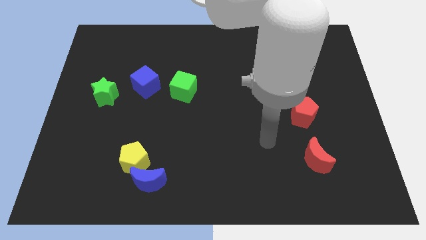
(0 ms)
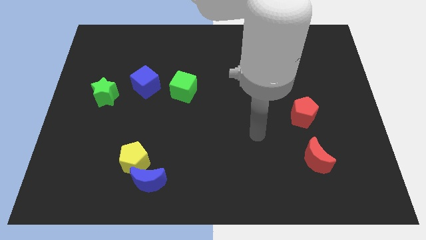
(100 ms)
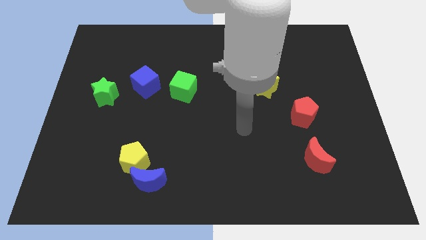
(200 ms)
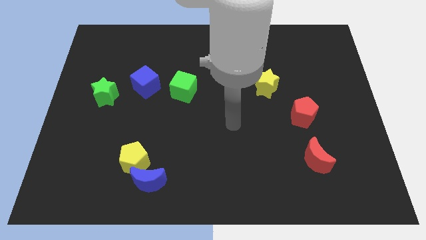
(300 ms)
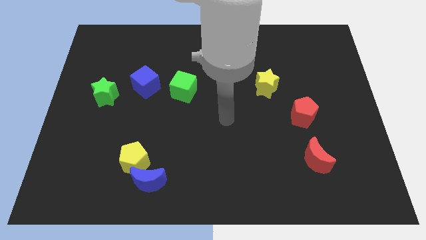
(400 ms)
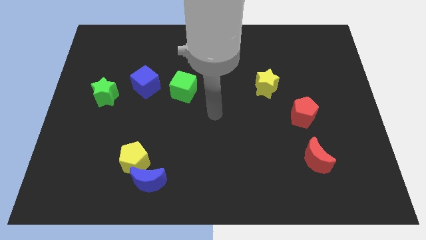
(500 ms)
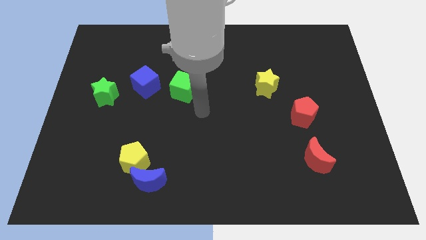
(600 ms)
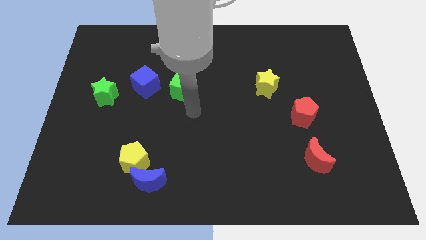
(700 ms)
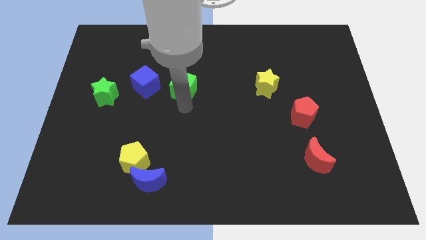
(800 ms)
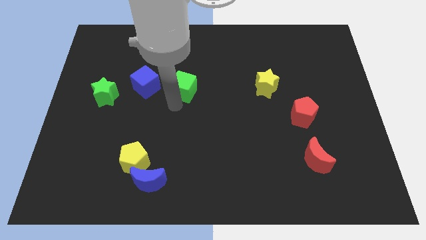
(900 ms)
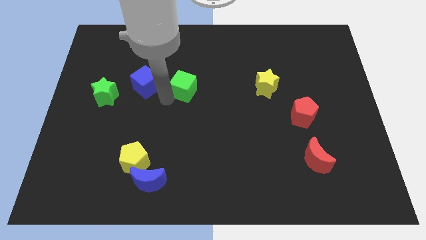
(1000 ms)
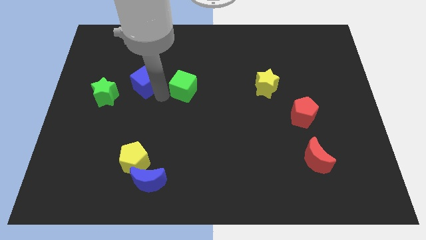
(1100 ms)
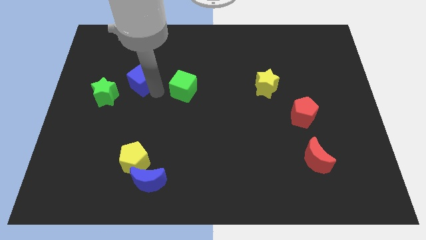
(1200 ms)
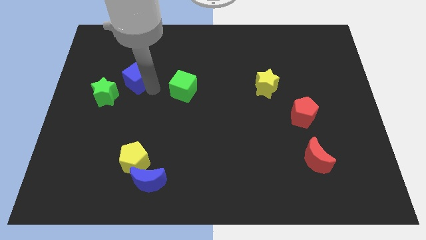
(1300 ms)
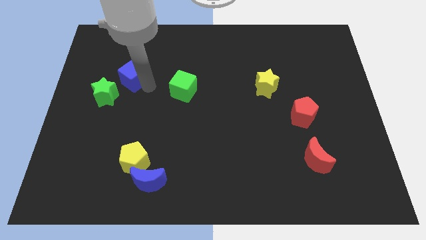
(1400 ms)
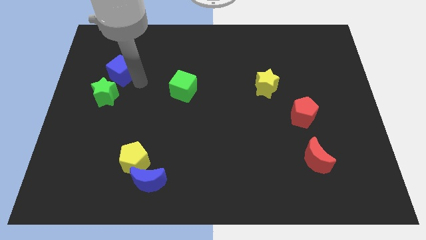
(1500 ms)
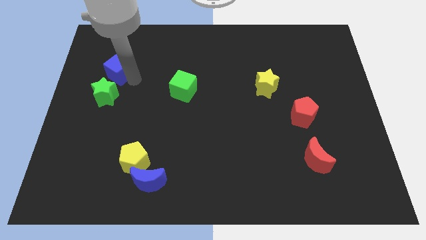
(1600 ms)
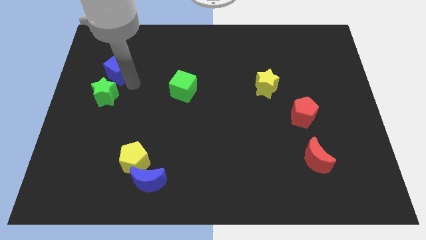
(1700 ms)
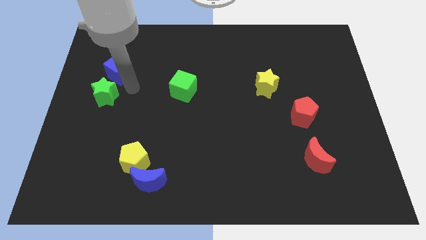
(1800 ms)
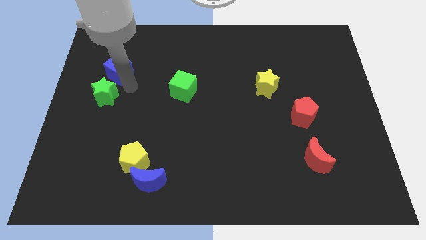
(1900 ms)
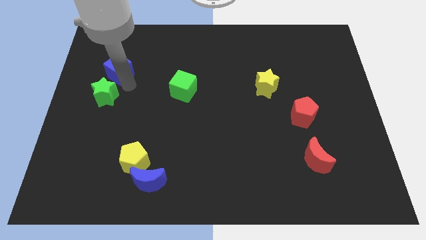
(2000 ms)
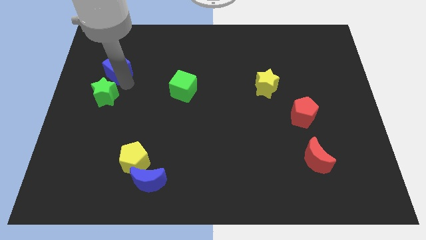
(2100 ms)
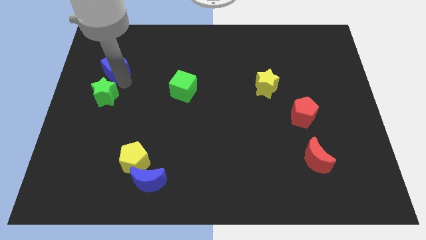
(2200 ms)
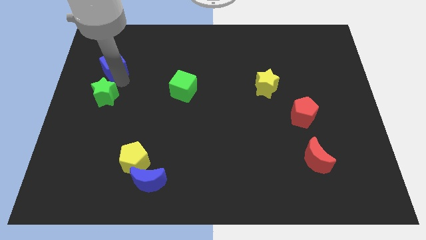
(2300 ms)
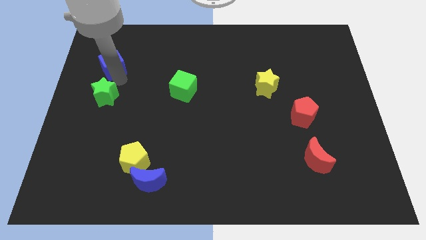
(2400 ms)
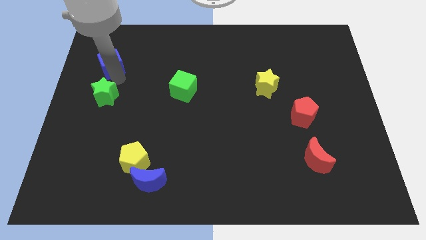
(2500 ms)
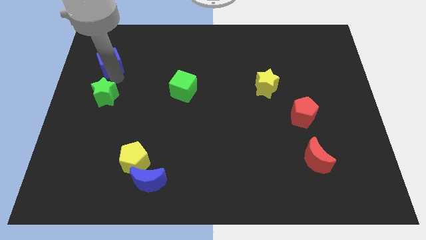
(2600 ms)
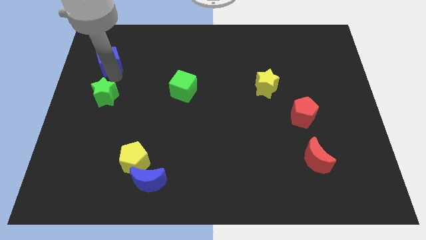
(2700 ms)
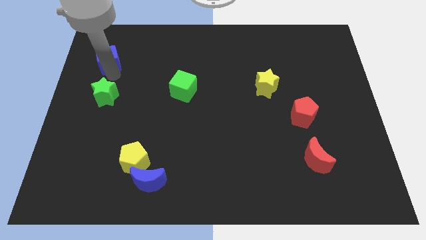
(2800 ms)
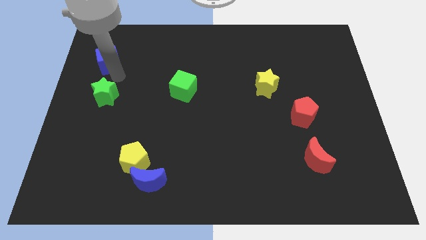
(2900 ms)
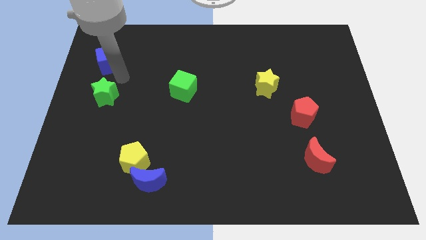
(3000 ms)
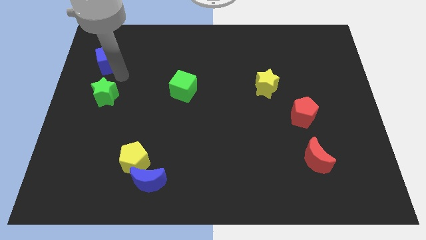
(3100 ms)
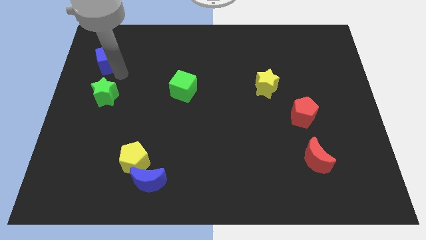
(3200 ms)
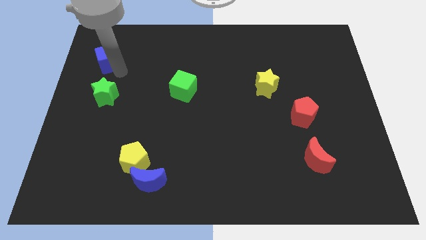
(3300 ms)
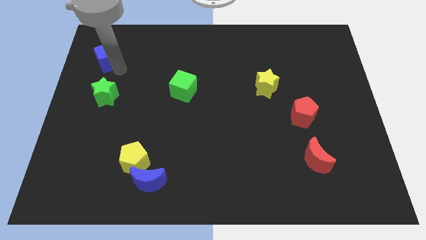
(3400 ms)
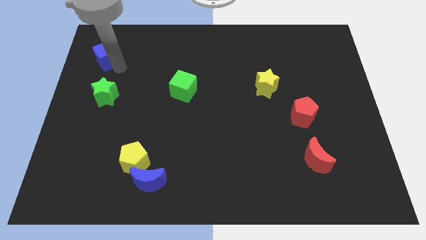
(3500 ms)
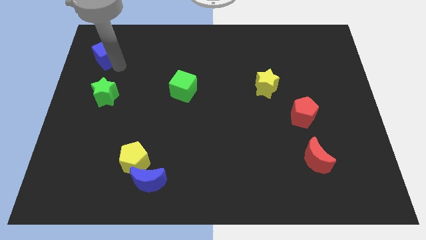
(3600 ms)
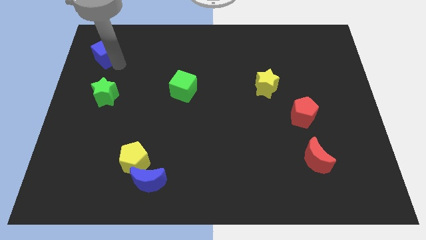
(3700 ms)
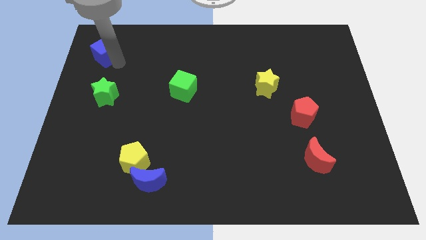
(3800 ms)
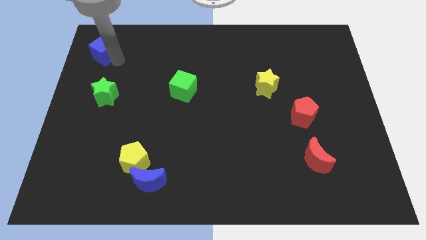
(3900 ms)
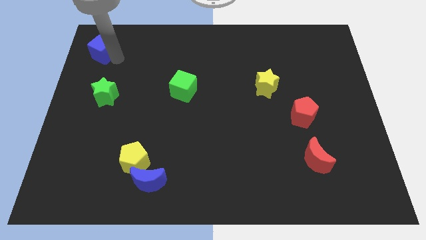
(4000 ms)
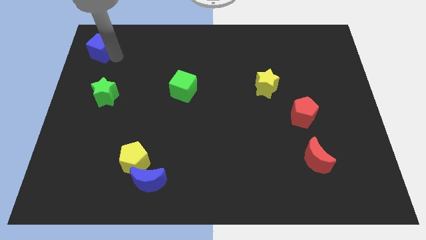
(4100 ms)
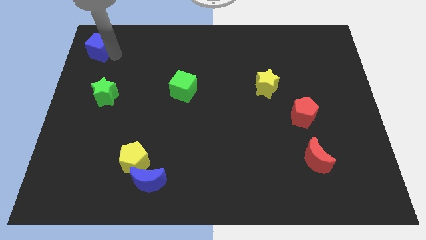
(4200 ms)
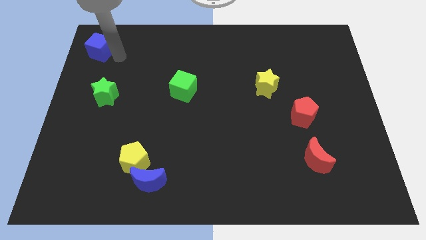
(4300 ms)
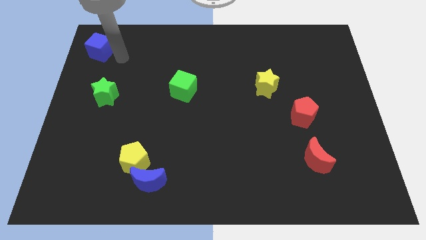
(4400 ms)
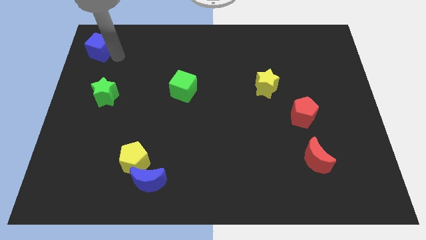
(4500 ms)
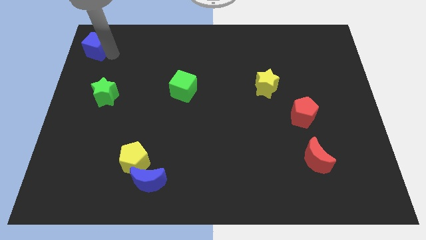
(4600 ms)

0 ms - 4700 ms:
push the blue cube to the upper left corner

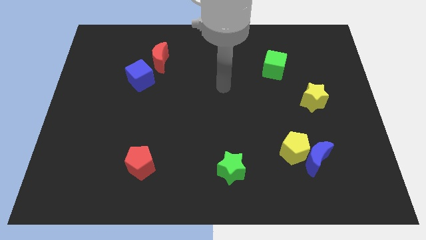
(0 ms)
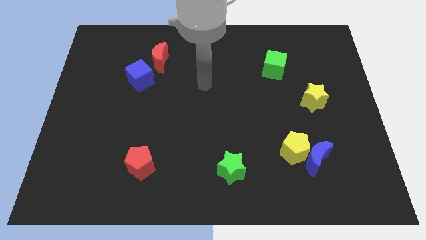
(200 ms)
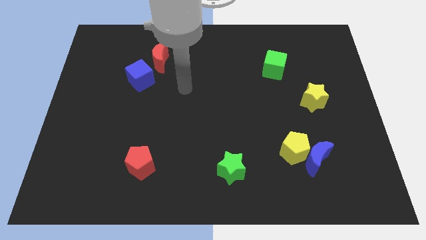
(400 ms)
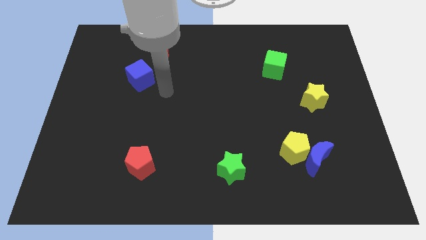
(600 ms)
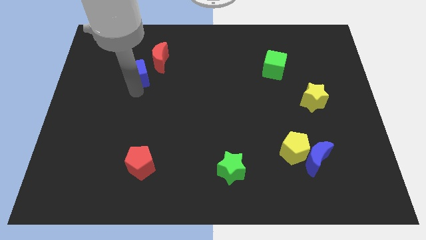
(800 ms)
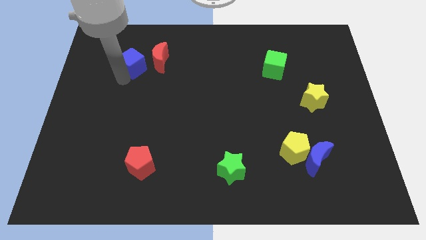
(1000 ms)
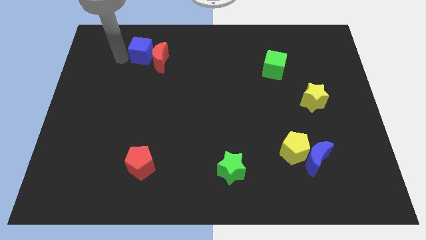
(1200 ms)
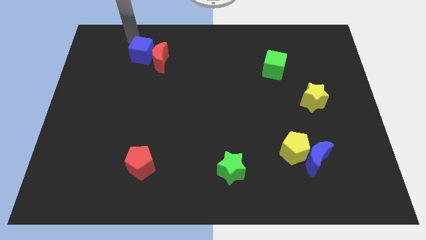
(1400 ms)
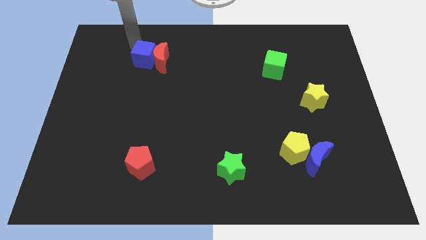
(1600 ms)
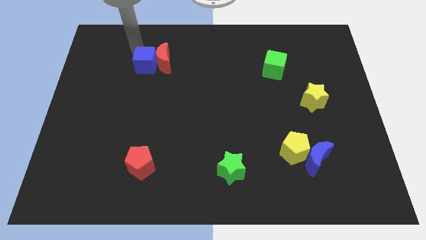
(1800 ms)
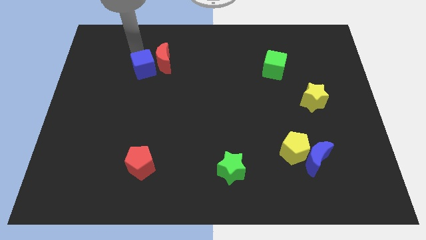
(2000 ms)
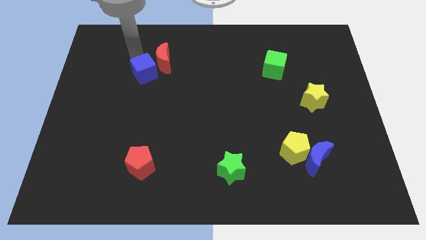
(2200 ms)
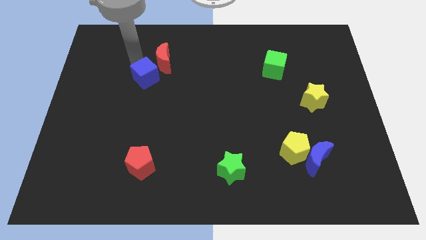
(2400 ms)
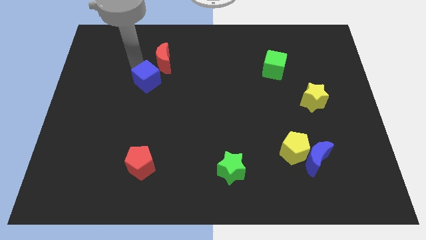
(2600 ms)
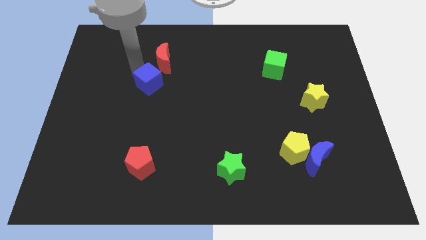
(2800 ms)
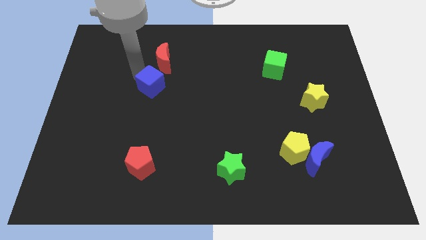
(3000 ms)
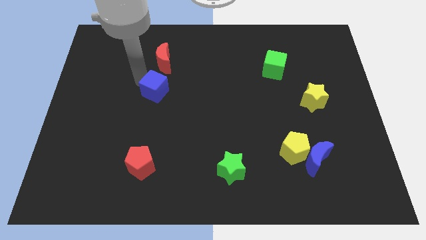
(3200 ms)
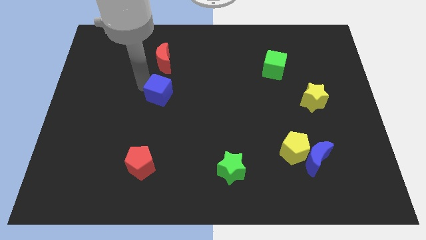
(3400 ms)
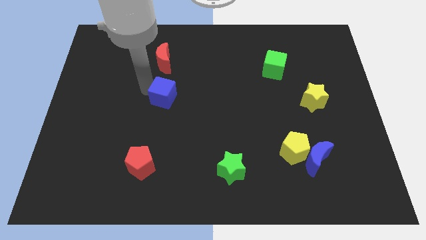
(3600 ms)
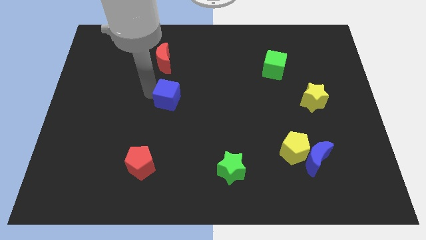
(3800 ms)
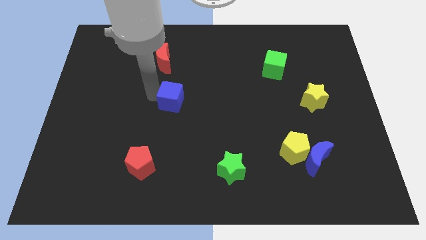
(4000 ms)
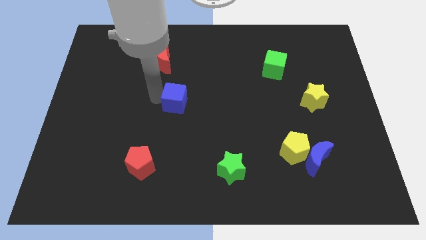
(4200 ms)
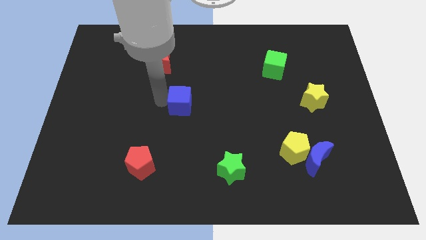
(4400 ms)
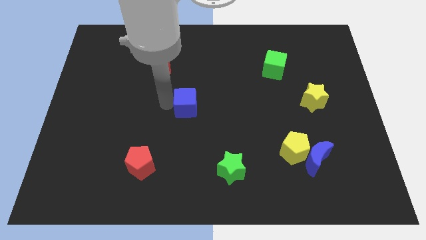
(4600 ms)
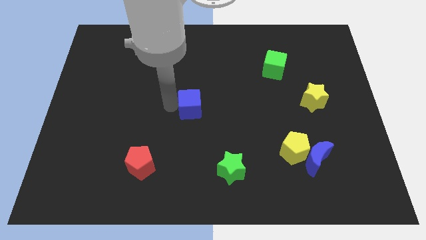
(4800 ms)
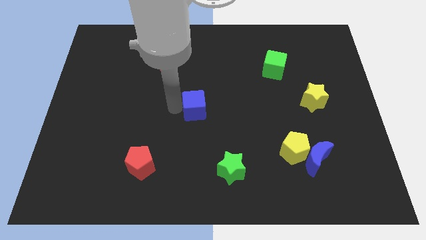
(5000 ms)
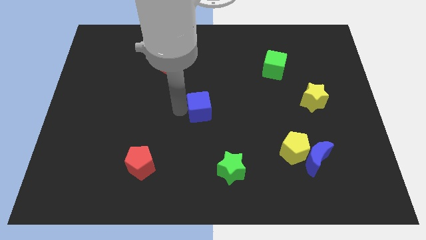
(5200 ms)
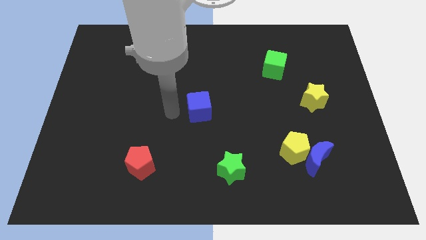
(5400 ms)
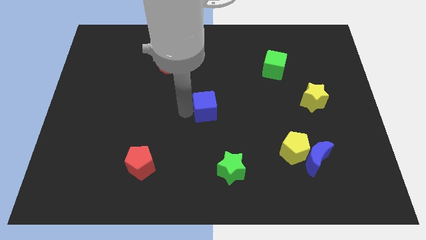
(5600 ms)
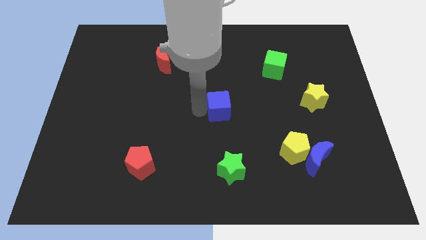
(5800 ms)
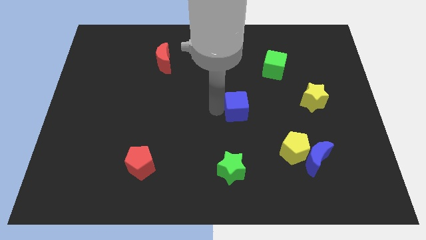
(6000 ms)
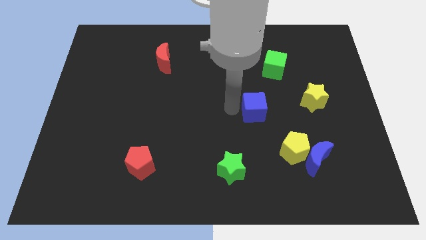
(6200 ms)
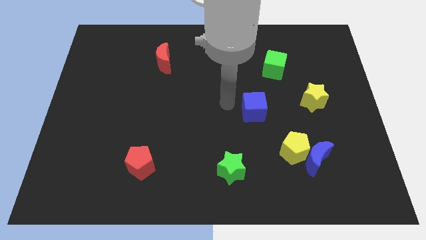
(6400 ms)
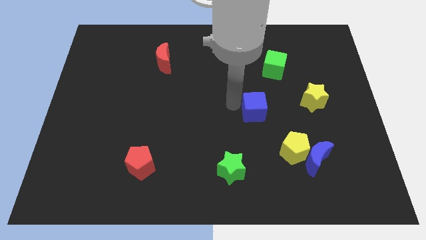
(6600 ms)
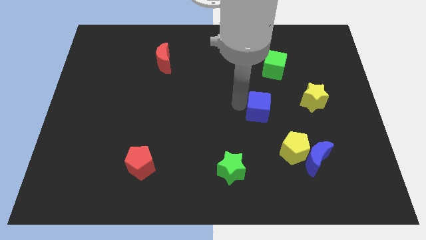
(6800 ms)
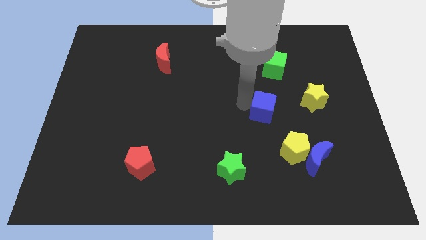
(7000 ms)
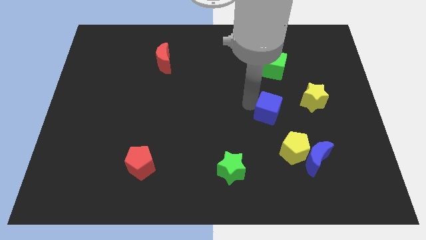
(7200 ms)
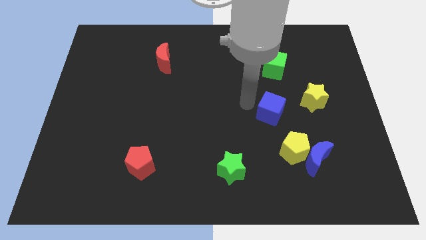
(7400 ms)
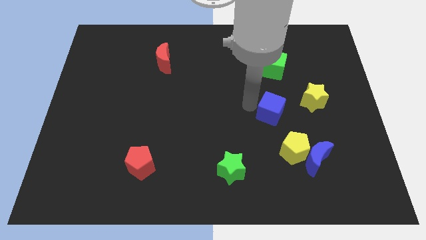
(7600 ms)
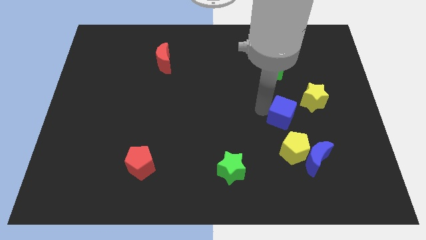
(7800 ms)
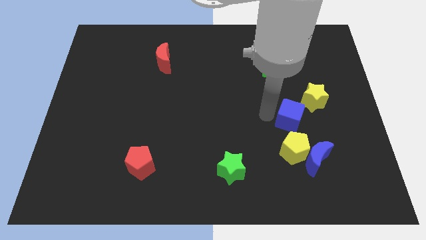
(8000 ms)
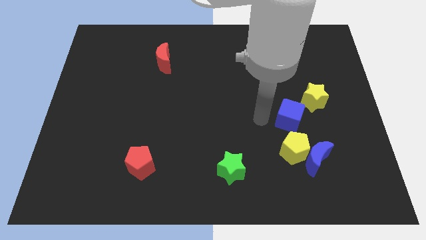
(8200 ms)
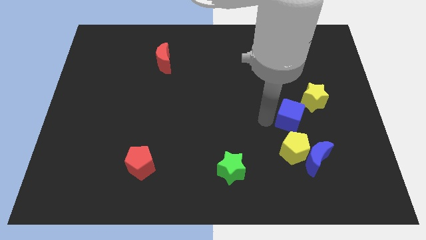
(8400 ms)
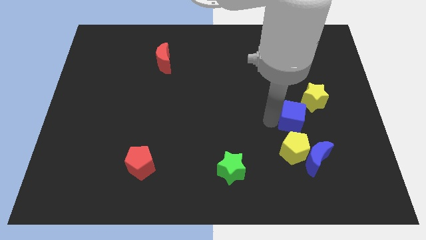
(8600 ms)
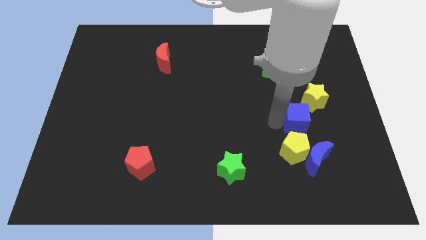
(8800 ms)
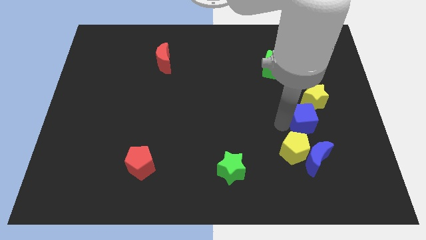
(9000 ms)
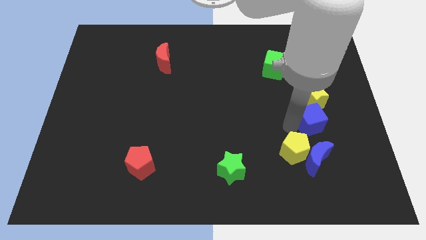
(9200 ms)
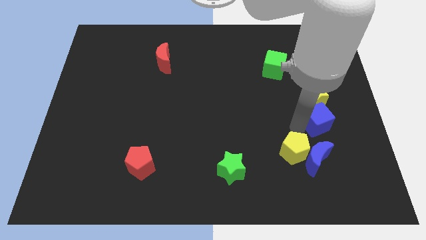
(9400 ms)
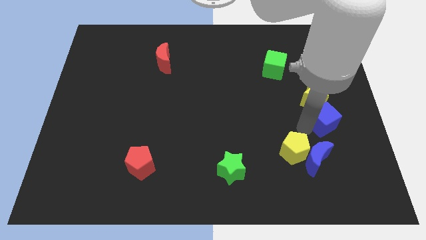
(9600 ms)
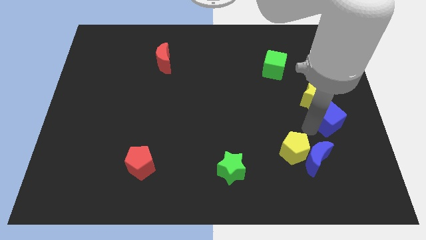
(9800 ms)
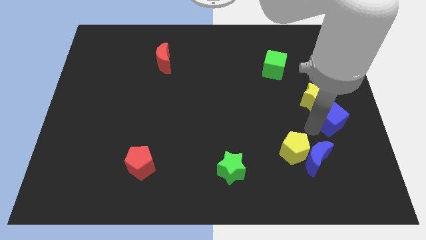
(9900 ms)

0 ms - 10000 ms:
move the blue cube to the right side
